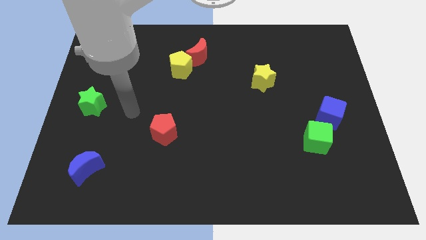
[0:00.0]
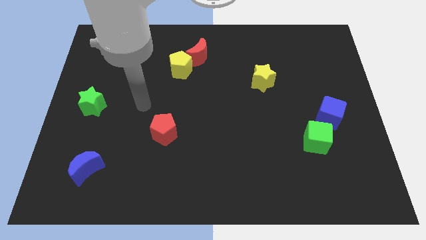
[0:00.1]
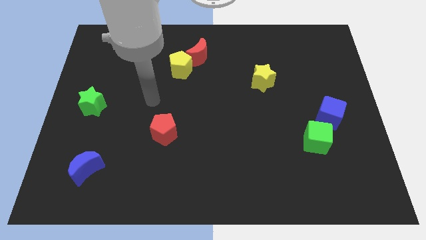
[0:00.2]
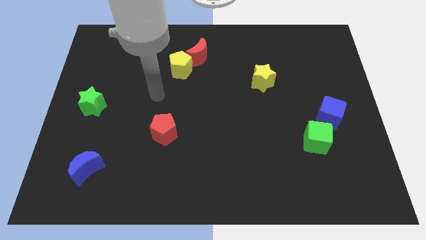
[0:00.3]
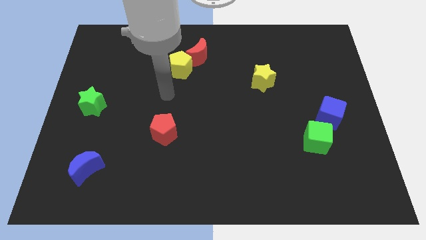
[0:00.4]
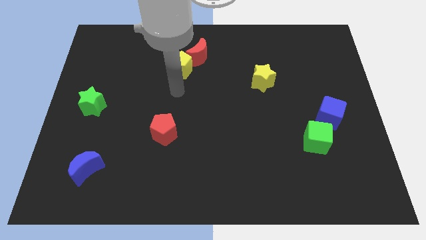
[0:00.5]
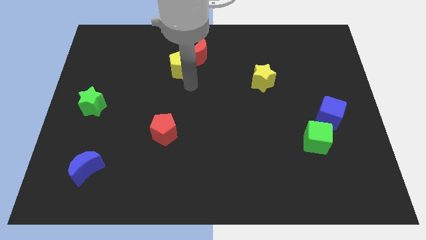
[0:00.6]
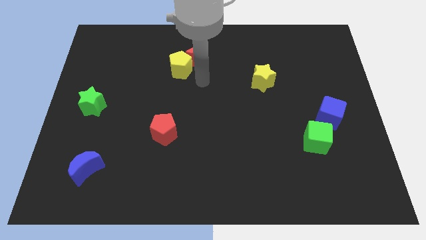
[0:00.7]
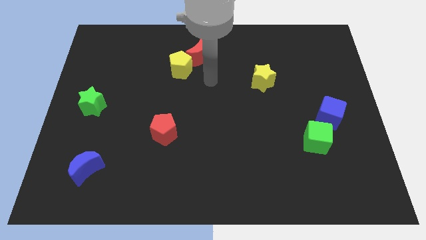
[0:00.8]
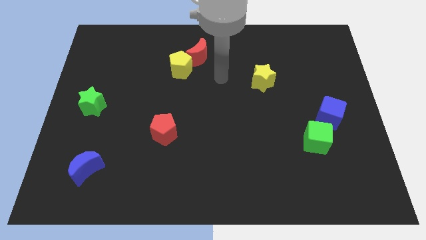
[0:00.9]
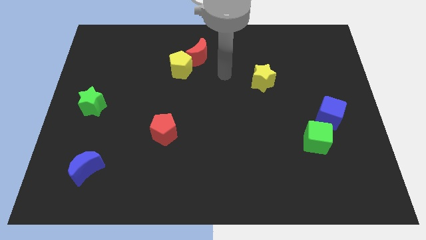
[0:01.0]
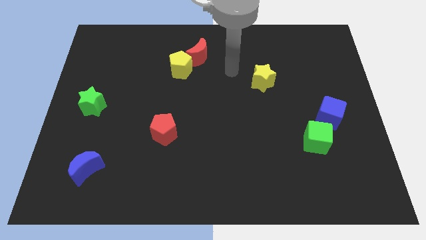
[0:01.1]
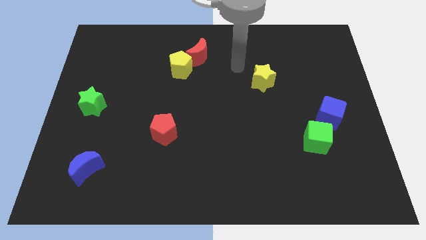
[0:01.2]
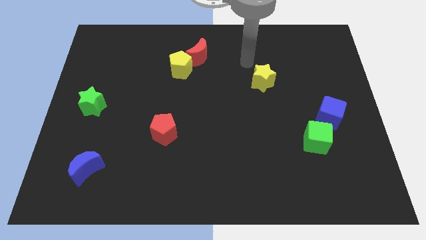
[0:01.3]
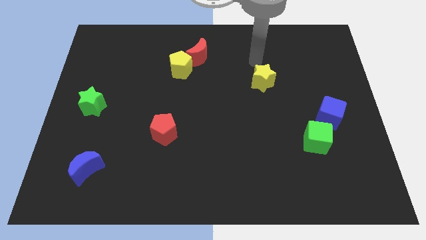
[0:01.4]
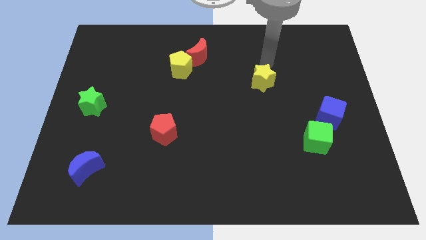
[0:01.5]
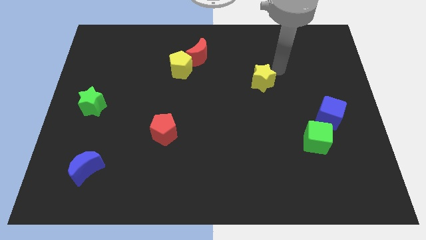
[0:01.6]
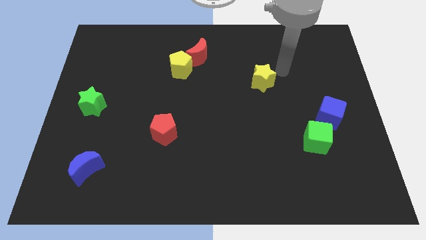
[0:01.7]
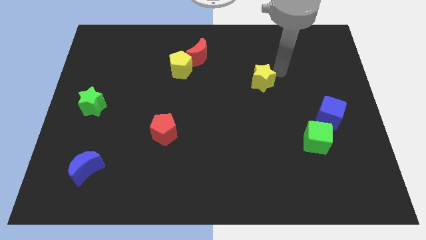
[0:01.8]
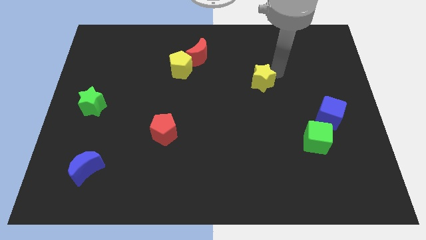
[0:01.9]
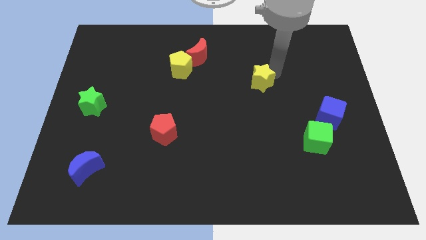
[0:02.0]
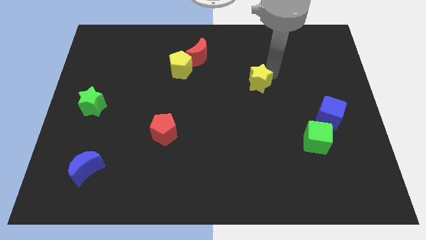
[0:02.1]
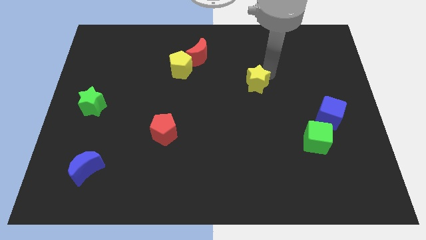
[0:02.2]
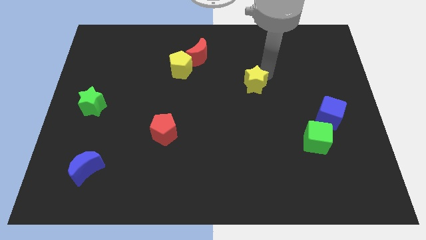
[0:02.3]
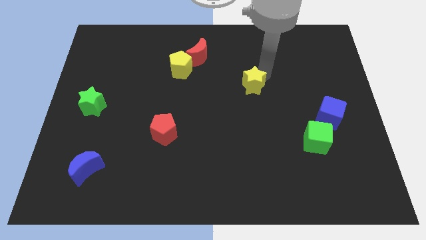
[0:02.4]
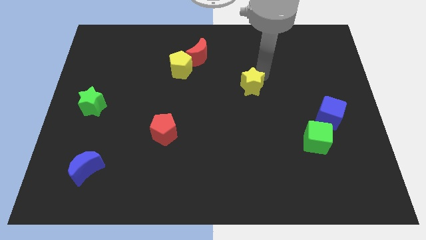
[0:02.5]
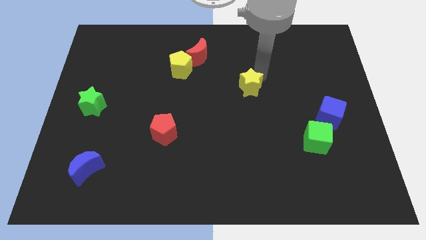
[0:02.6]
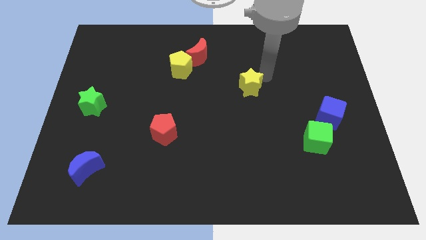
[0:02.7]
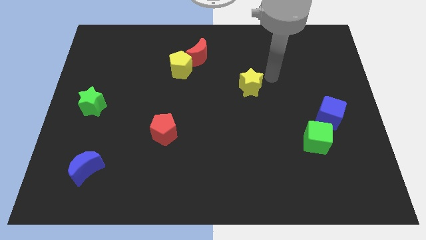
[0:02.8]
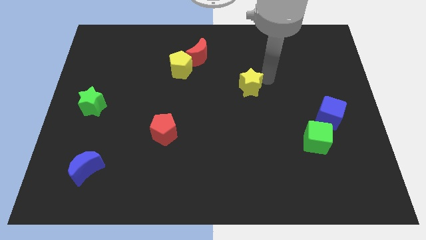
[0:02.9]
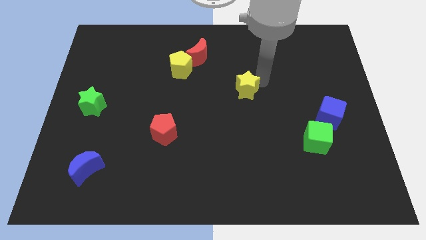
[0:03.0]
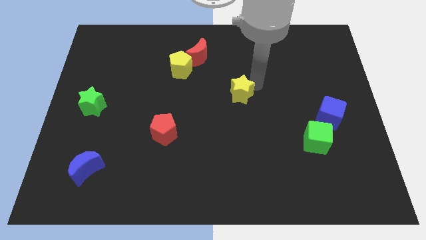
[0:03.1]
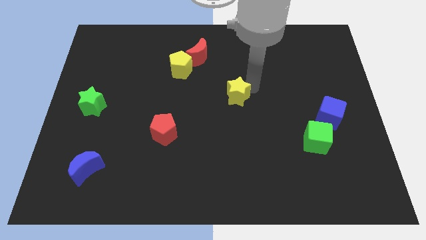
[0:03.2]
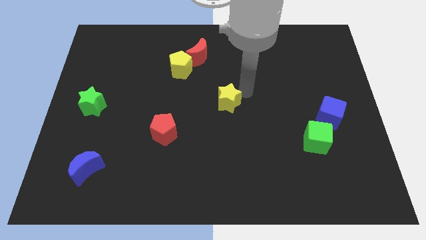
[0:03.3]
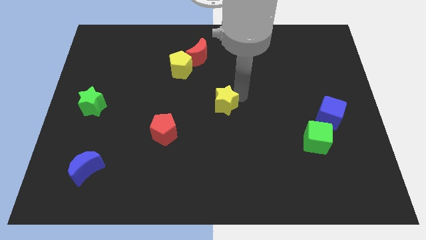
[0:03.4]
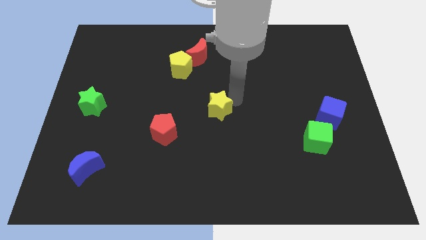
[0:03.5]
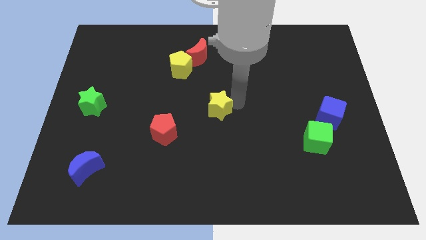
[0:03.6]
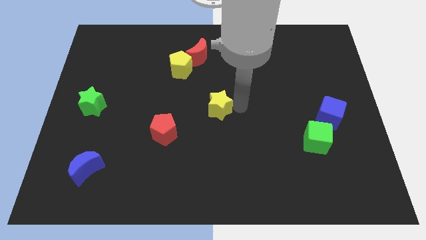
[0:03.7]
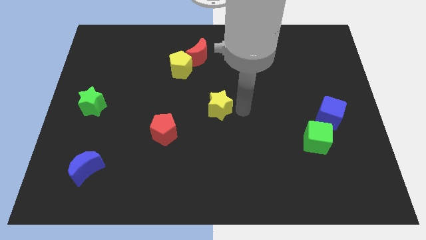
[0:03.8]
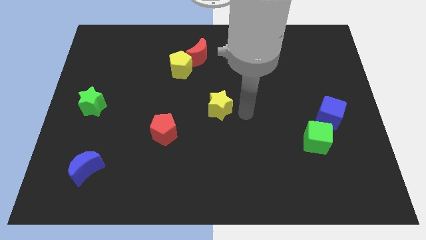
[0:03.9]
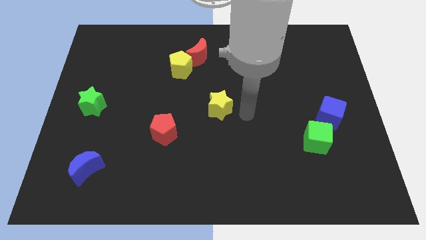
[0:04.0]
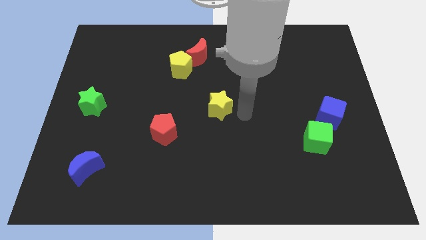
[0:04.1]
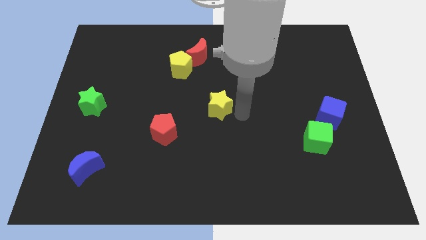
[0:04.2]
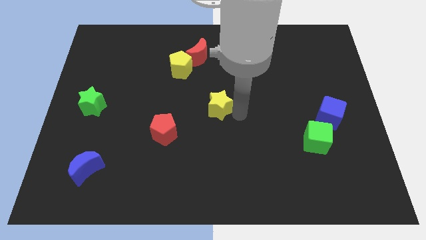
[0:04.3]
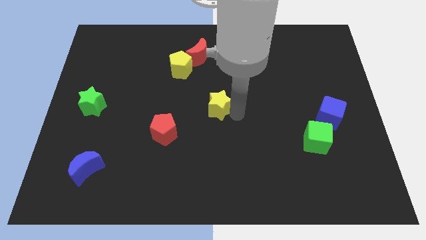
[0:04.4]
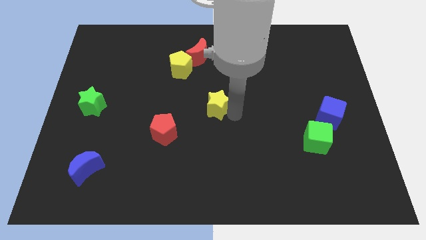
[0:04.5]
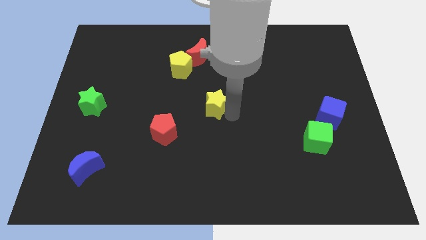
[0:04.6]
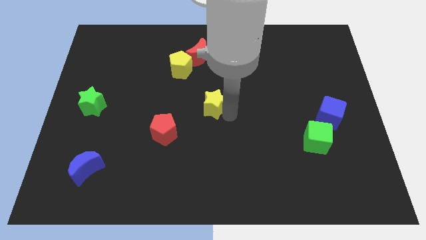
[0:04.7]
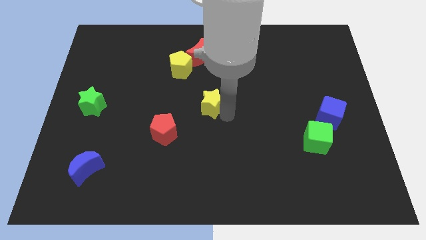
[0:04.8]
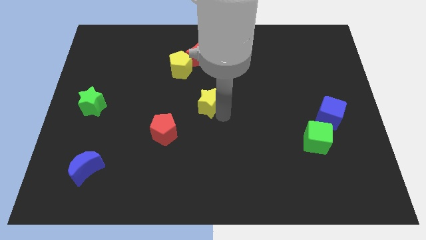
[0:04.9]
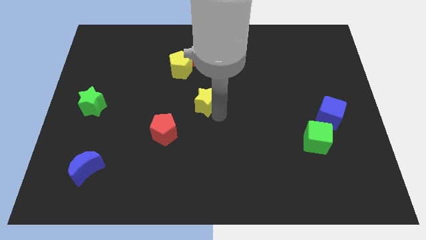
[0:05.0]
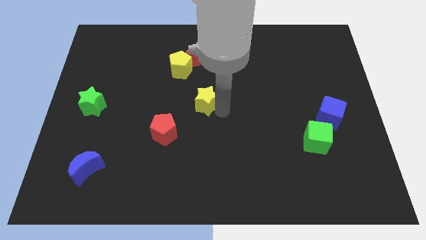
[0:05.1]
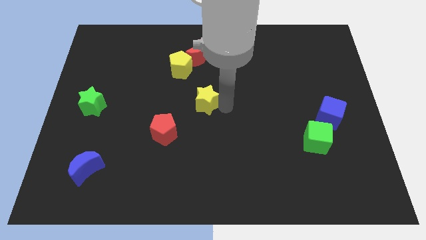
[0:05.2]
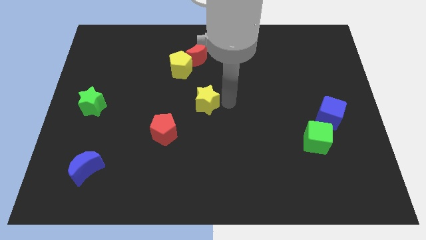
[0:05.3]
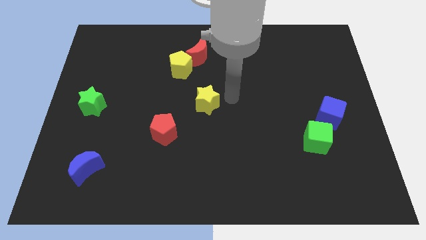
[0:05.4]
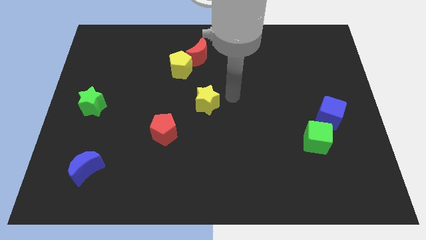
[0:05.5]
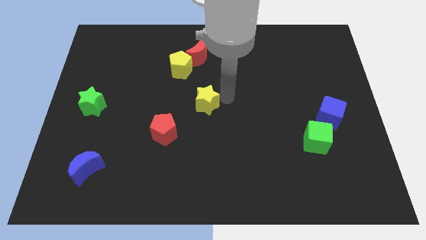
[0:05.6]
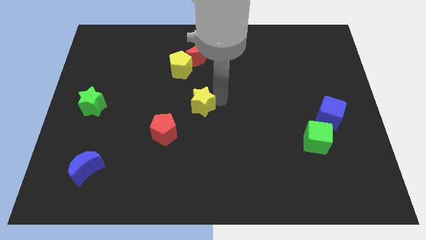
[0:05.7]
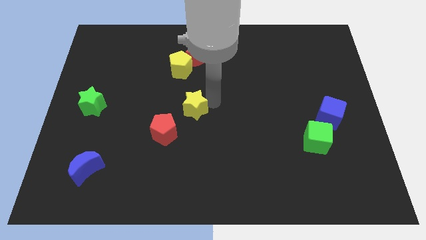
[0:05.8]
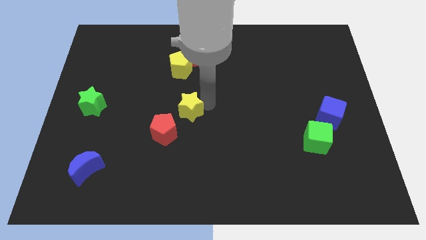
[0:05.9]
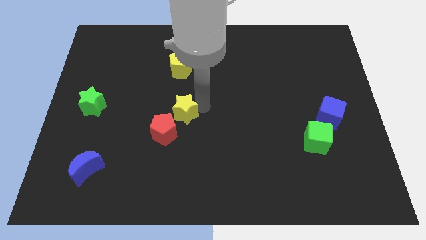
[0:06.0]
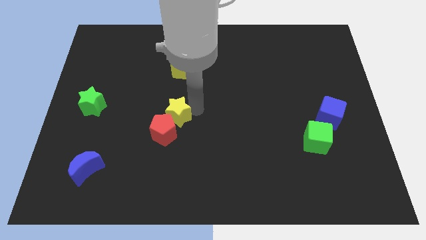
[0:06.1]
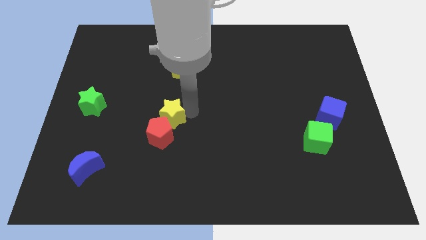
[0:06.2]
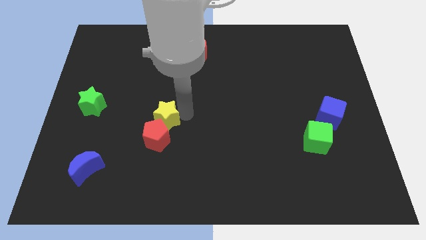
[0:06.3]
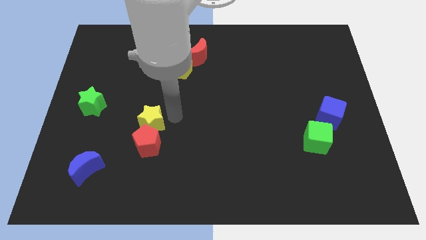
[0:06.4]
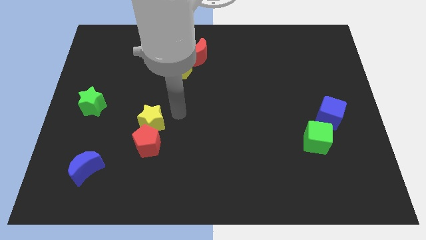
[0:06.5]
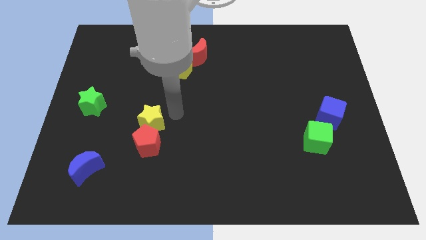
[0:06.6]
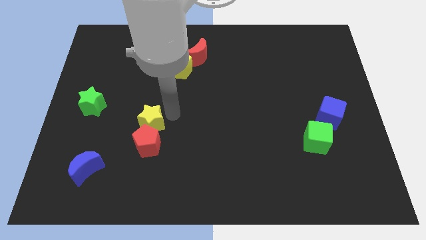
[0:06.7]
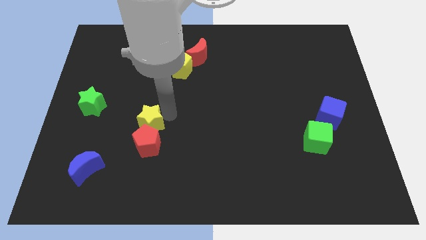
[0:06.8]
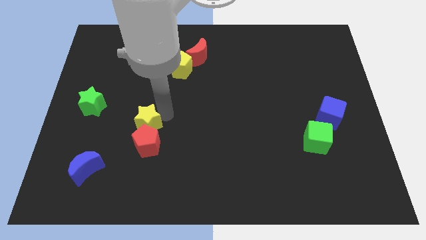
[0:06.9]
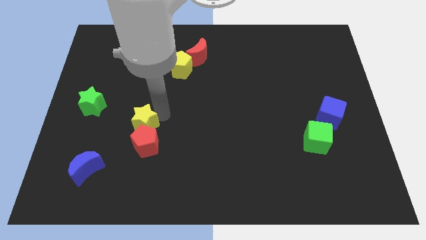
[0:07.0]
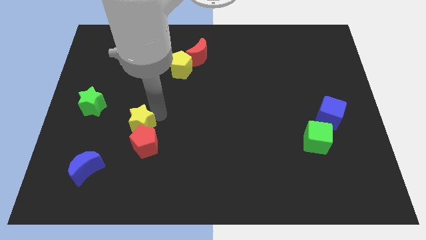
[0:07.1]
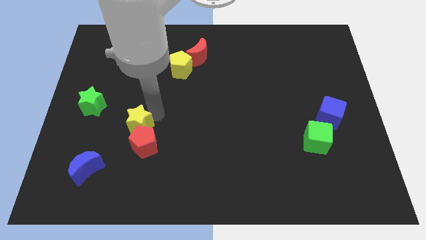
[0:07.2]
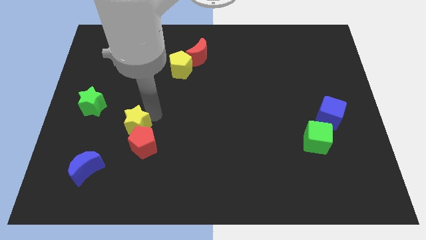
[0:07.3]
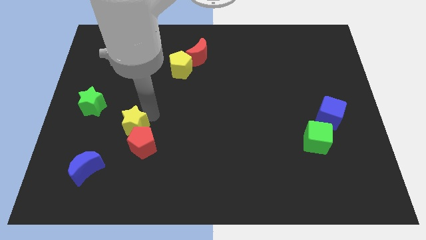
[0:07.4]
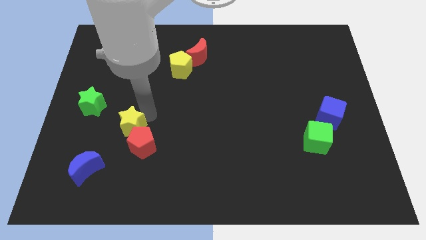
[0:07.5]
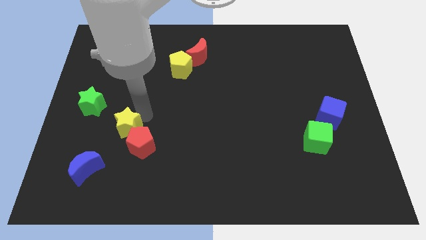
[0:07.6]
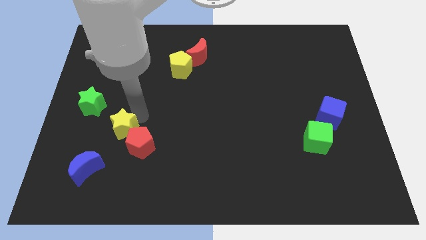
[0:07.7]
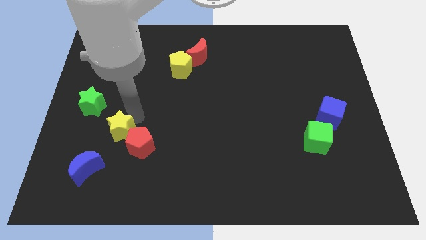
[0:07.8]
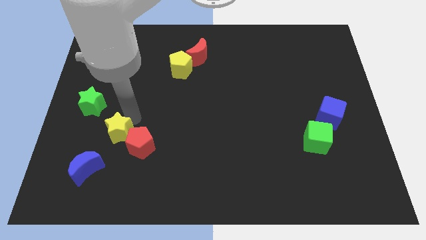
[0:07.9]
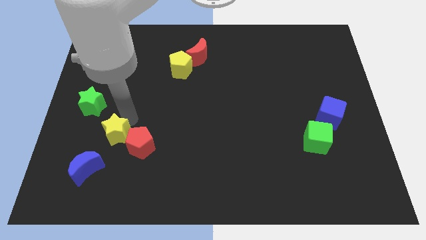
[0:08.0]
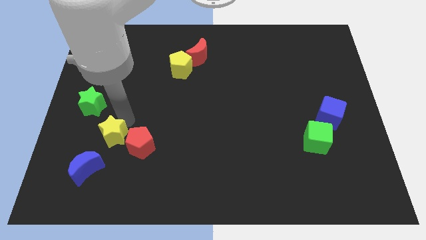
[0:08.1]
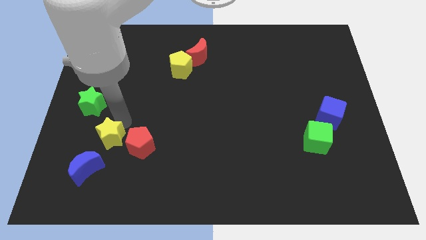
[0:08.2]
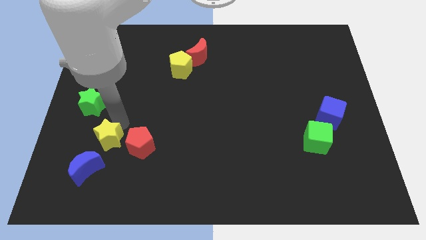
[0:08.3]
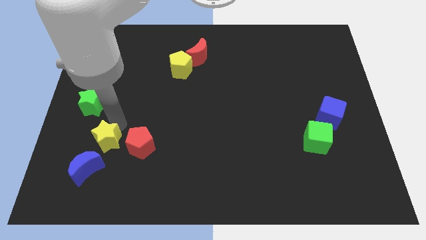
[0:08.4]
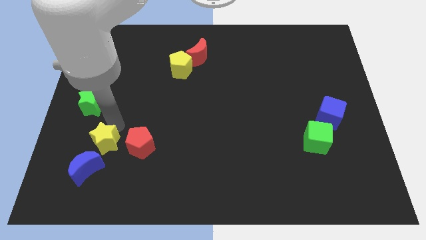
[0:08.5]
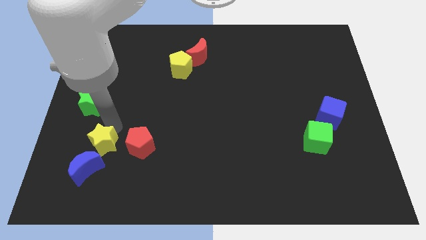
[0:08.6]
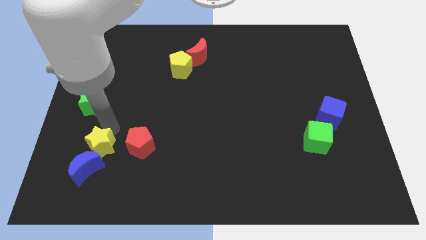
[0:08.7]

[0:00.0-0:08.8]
push the yellow star towards the blue moon
